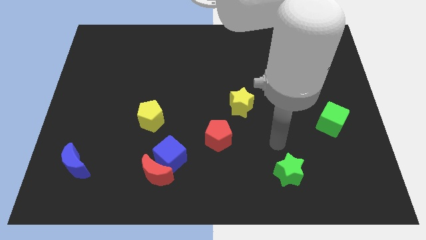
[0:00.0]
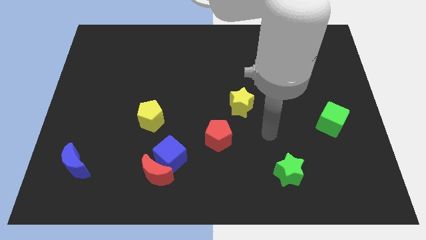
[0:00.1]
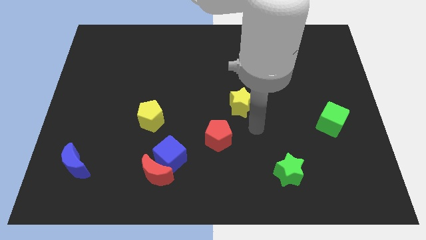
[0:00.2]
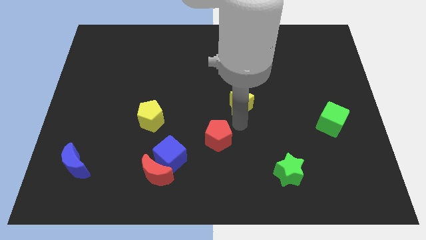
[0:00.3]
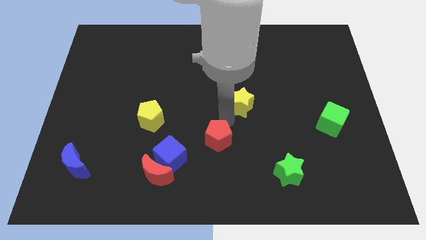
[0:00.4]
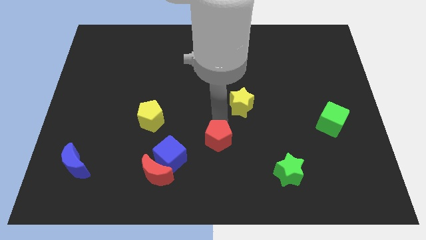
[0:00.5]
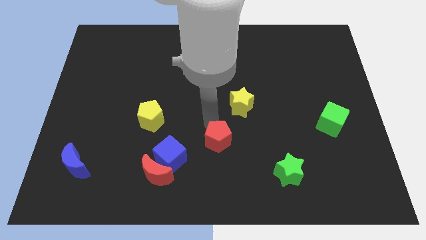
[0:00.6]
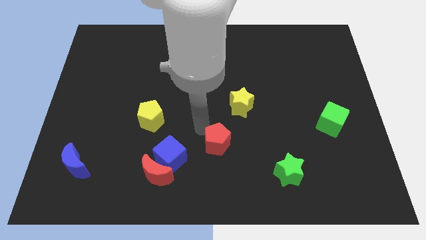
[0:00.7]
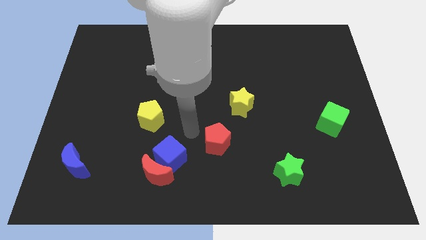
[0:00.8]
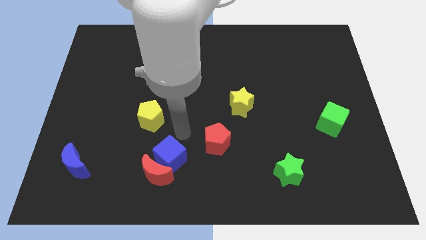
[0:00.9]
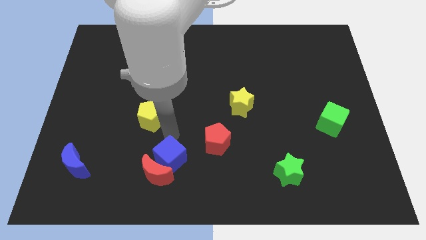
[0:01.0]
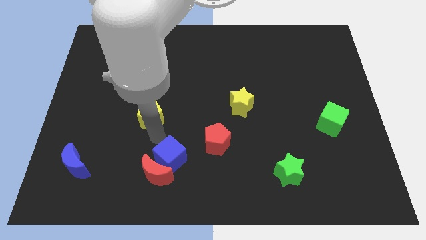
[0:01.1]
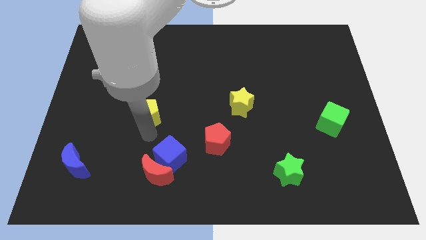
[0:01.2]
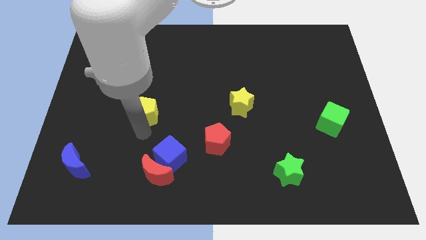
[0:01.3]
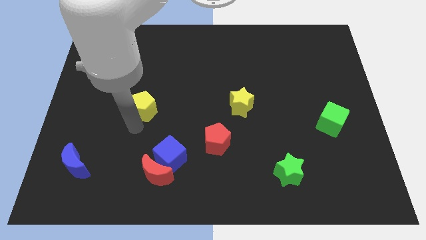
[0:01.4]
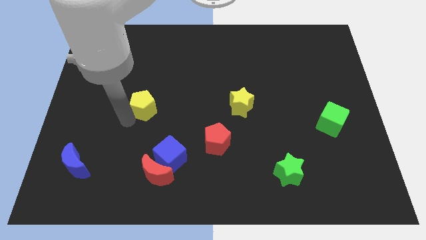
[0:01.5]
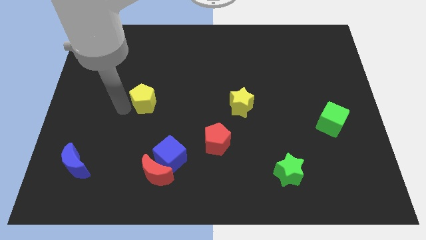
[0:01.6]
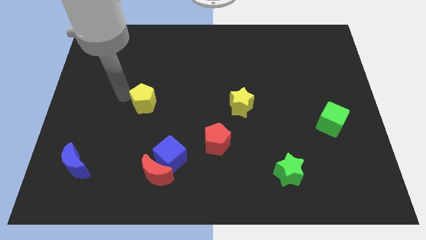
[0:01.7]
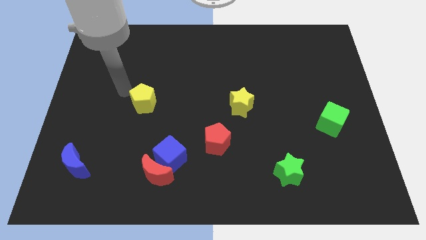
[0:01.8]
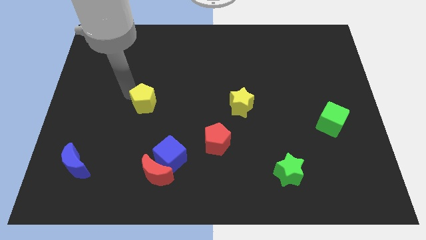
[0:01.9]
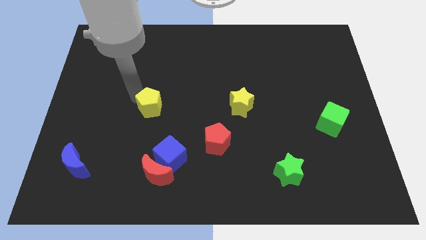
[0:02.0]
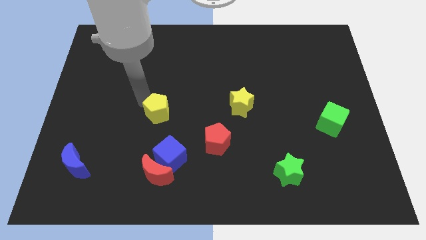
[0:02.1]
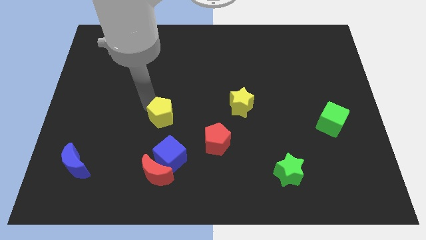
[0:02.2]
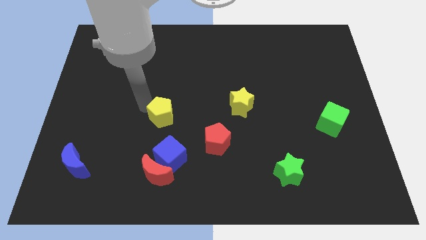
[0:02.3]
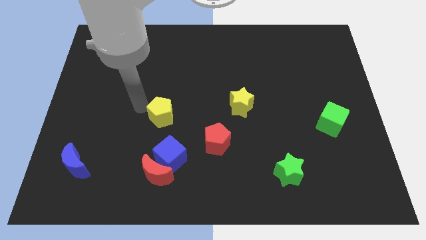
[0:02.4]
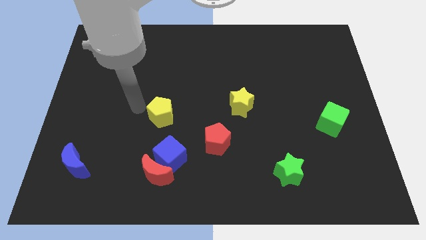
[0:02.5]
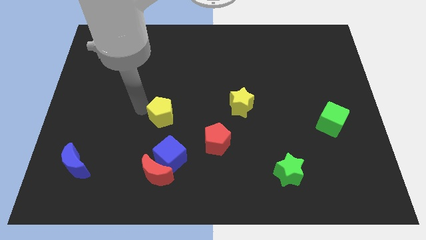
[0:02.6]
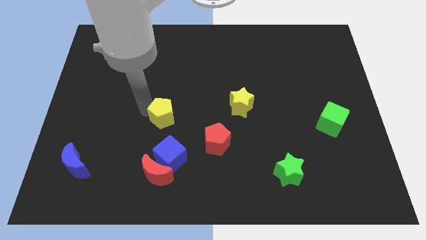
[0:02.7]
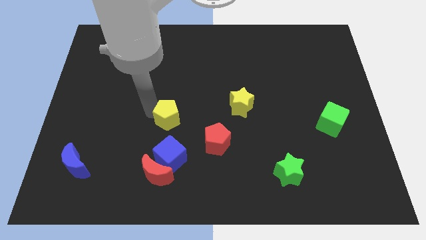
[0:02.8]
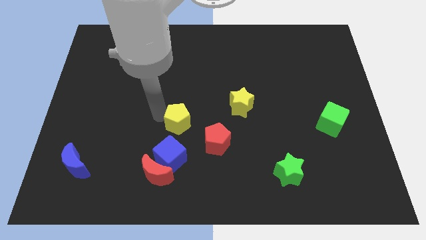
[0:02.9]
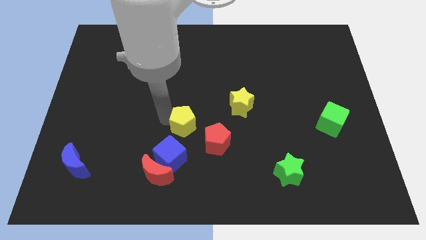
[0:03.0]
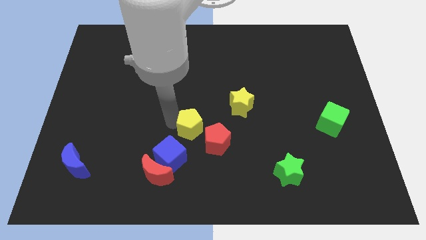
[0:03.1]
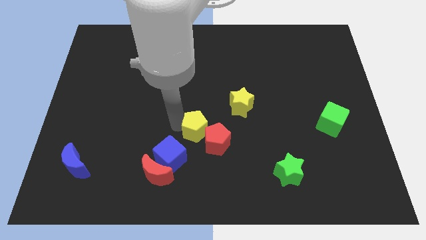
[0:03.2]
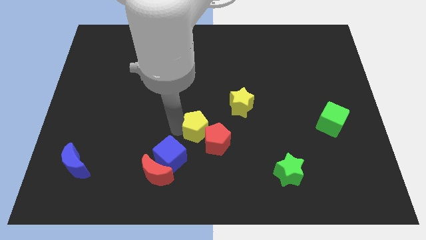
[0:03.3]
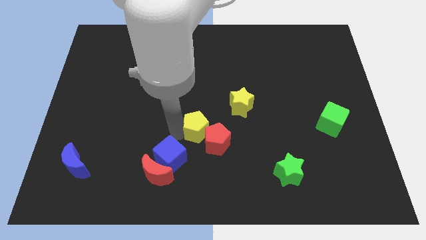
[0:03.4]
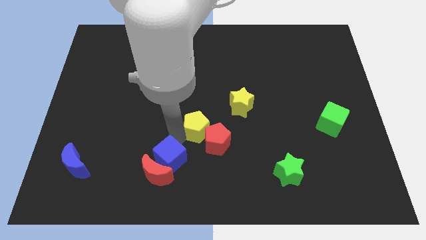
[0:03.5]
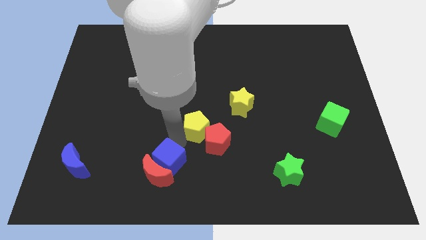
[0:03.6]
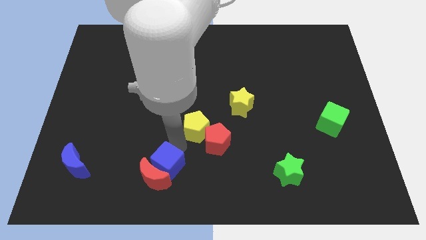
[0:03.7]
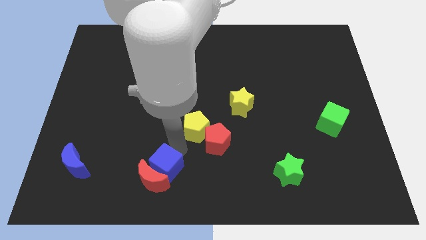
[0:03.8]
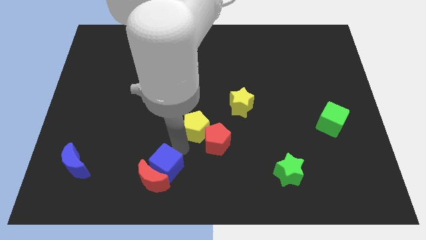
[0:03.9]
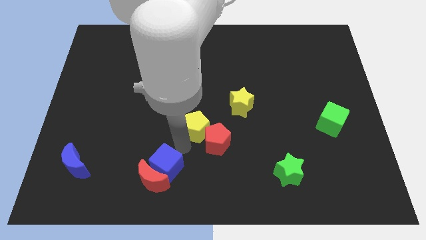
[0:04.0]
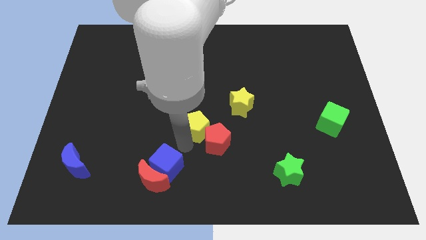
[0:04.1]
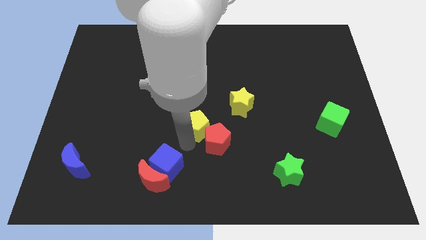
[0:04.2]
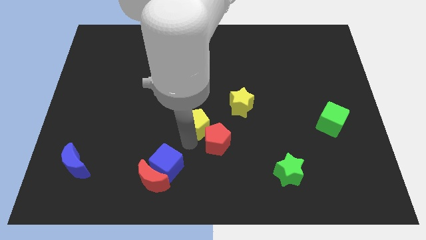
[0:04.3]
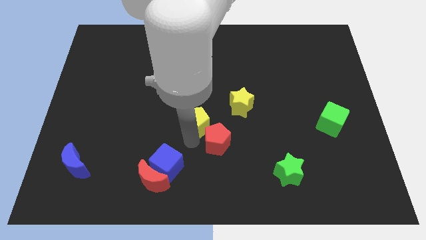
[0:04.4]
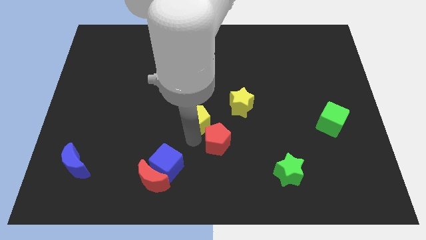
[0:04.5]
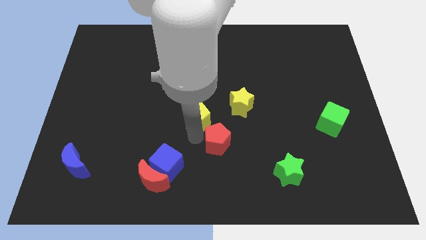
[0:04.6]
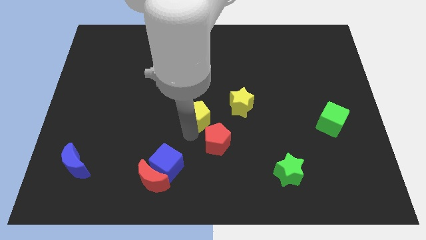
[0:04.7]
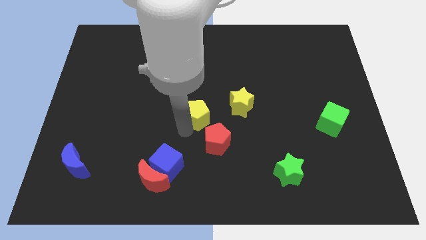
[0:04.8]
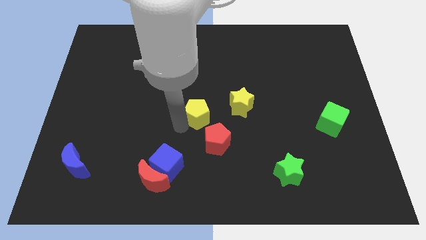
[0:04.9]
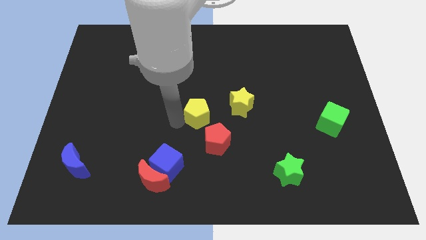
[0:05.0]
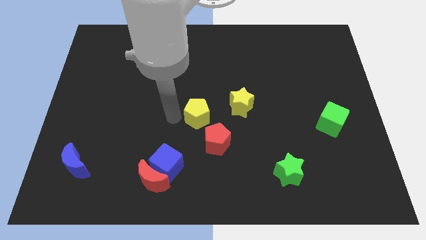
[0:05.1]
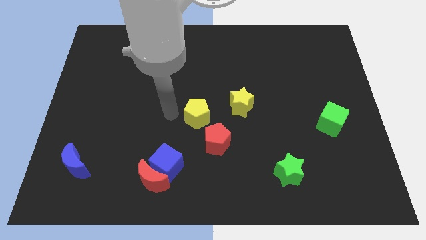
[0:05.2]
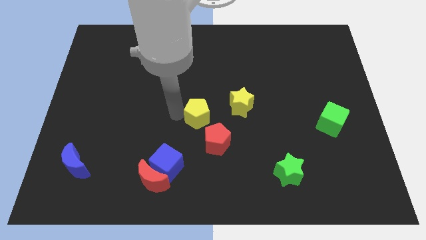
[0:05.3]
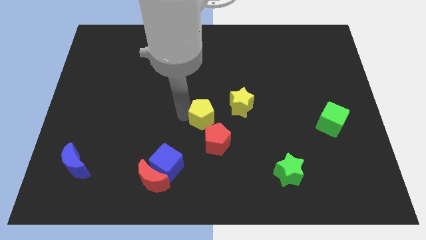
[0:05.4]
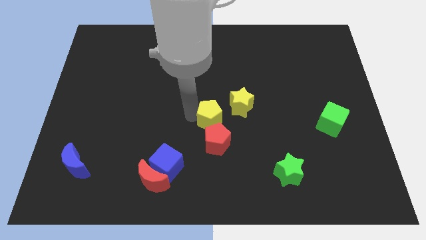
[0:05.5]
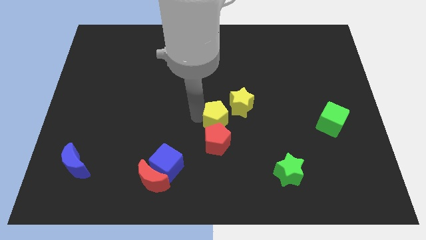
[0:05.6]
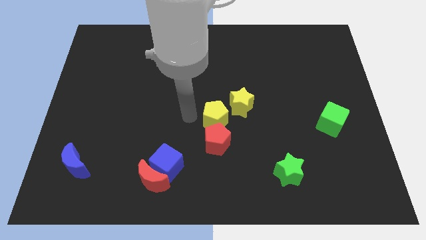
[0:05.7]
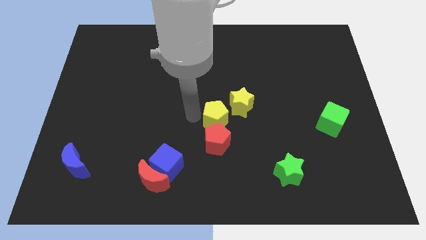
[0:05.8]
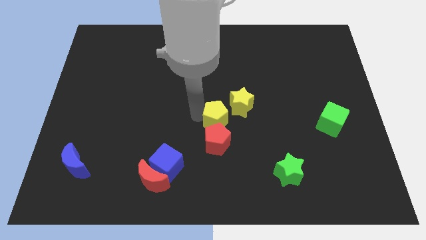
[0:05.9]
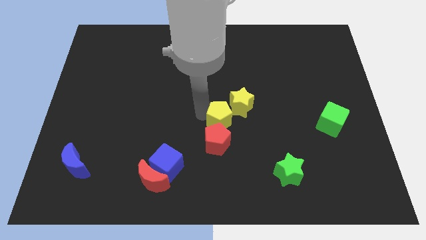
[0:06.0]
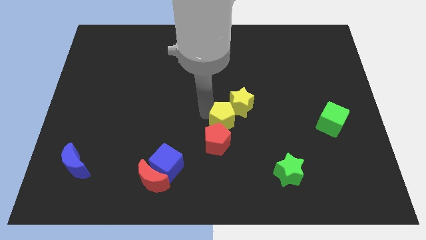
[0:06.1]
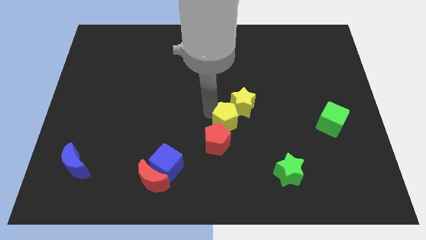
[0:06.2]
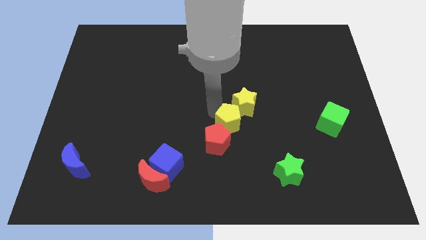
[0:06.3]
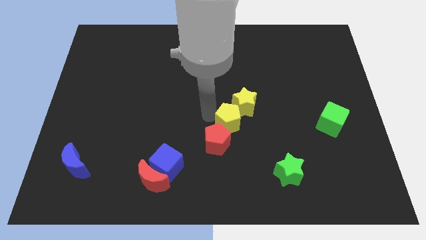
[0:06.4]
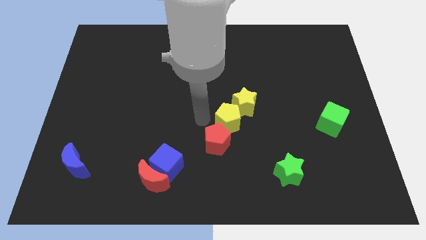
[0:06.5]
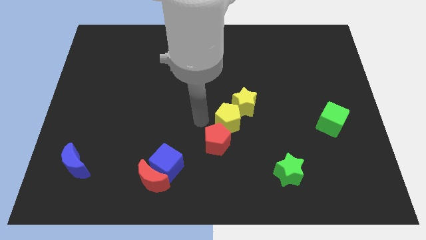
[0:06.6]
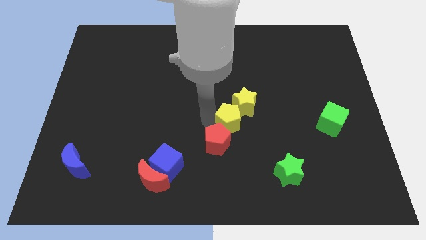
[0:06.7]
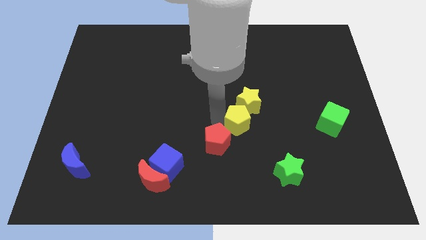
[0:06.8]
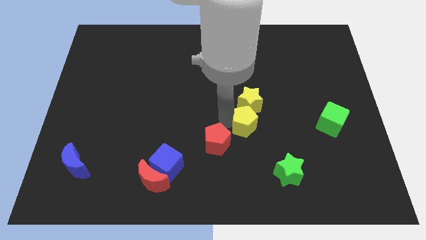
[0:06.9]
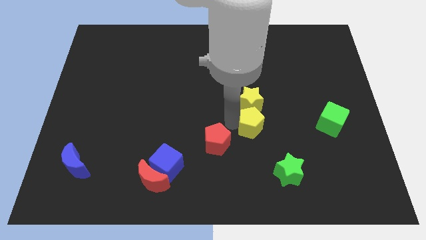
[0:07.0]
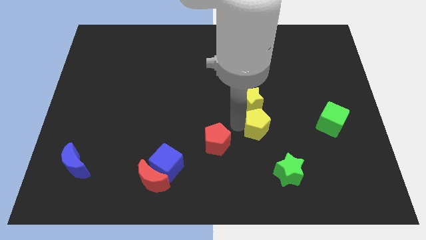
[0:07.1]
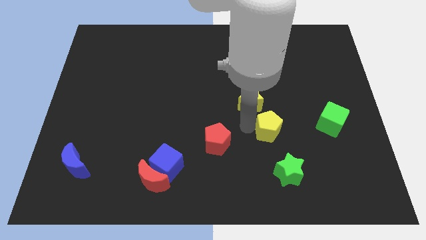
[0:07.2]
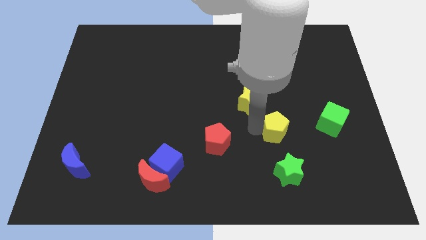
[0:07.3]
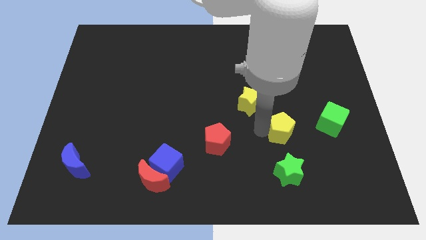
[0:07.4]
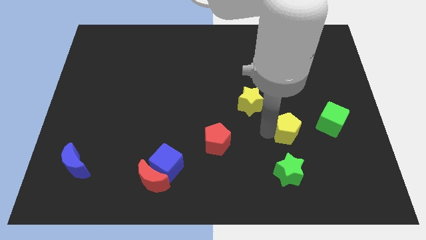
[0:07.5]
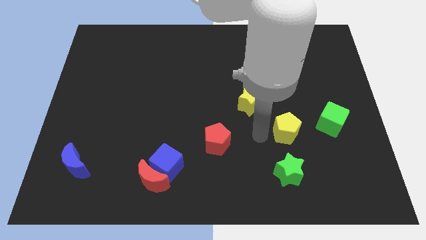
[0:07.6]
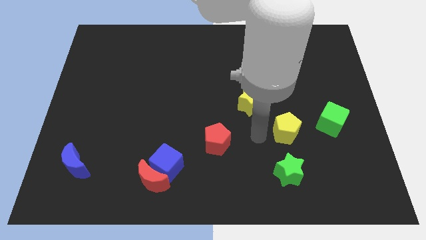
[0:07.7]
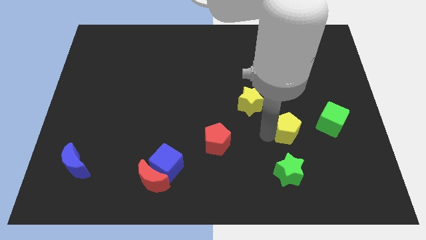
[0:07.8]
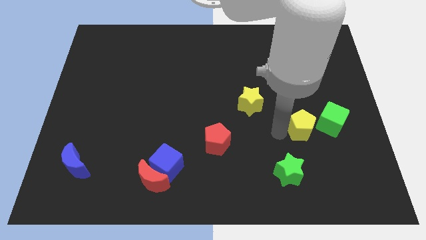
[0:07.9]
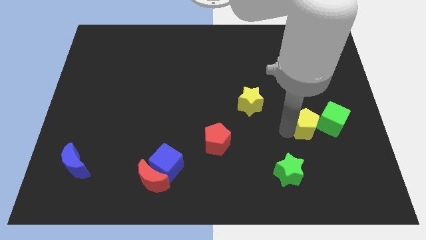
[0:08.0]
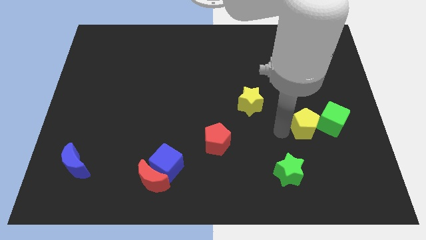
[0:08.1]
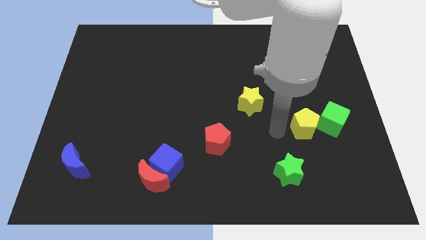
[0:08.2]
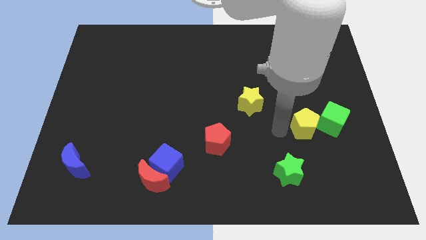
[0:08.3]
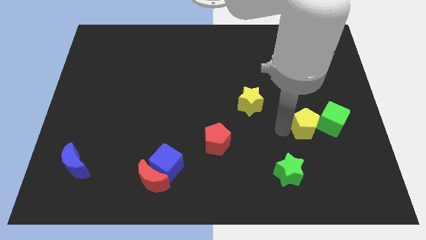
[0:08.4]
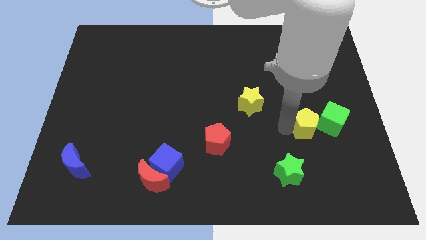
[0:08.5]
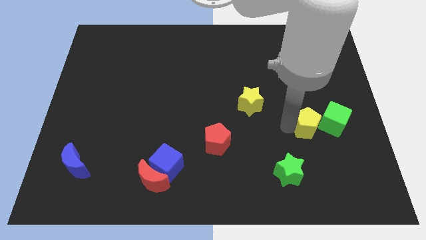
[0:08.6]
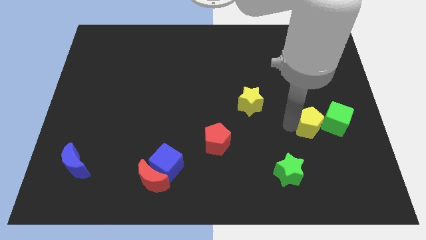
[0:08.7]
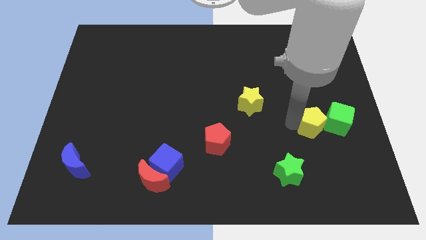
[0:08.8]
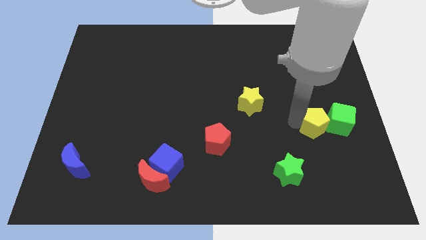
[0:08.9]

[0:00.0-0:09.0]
push the yellow pentagon to the green cube
